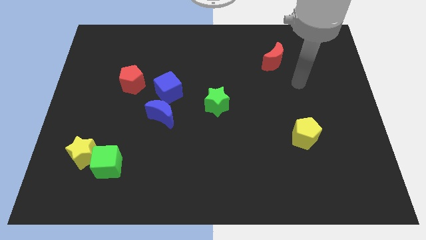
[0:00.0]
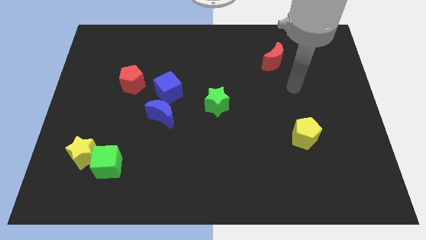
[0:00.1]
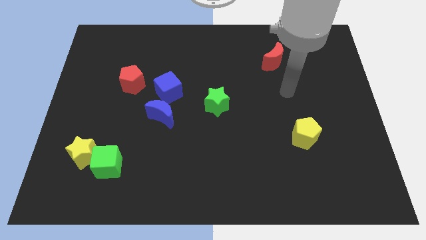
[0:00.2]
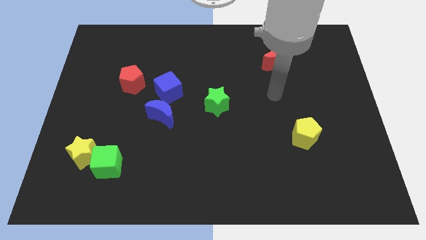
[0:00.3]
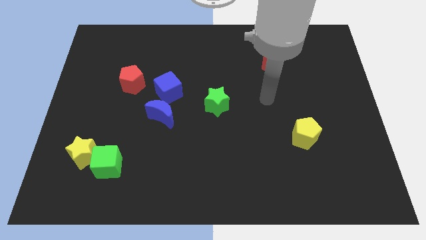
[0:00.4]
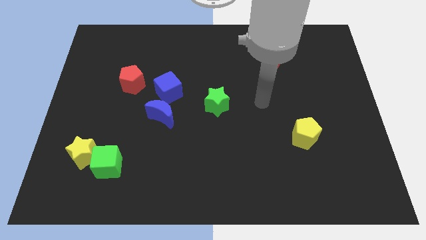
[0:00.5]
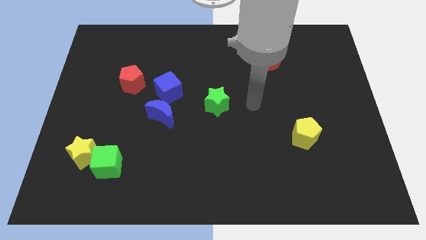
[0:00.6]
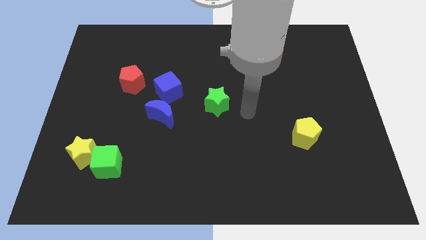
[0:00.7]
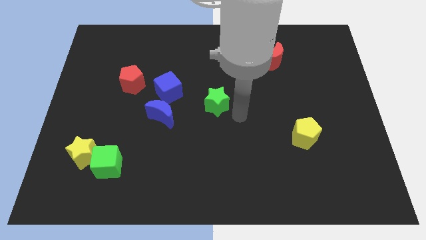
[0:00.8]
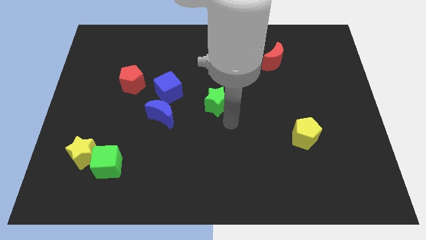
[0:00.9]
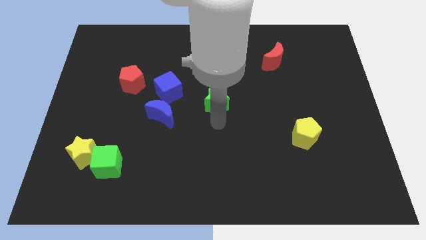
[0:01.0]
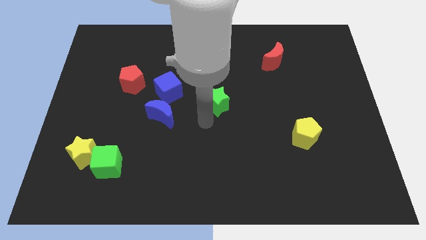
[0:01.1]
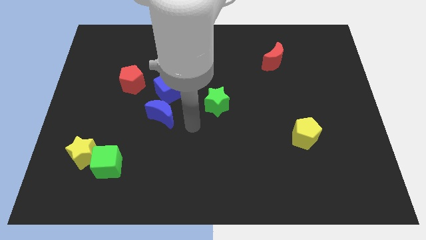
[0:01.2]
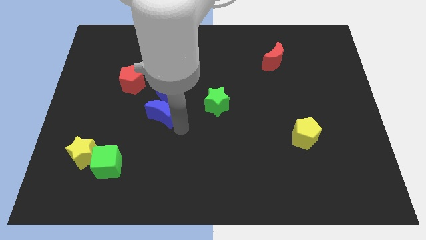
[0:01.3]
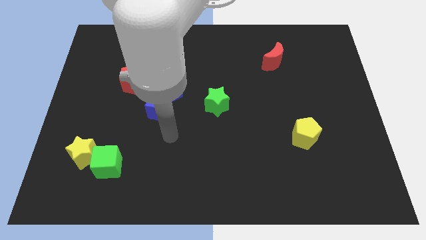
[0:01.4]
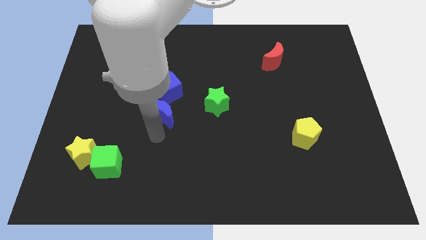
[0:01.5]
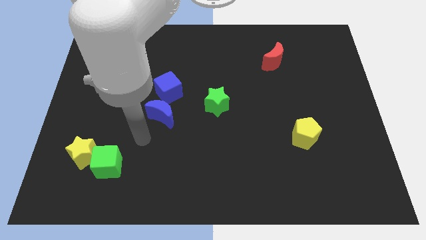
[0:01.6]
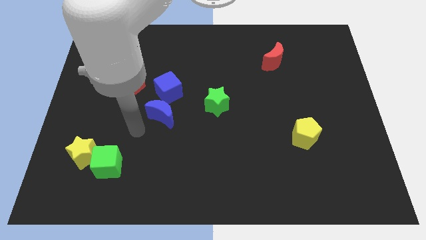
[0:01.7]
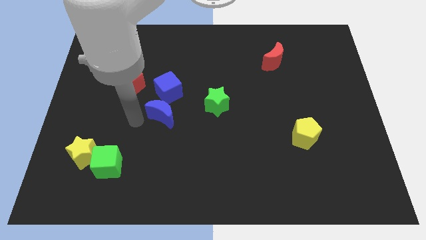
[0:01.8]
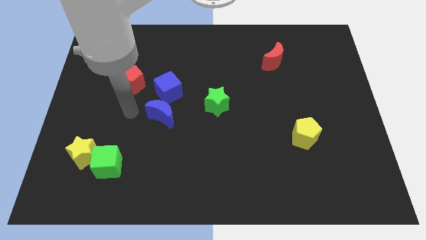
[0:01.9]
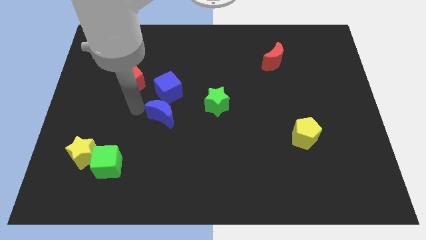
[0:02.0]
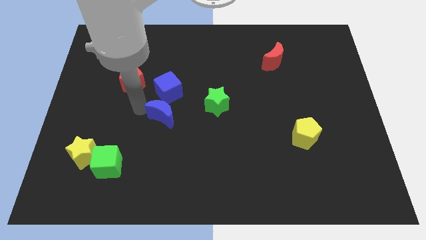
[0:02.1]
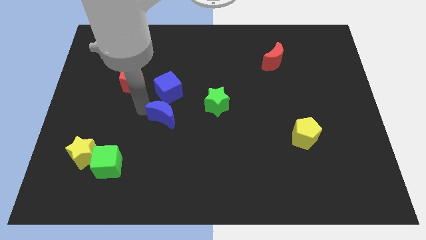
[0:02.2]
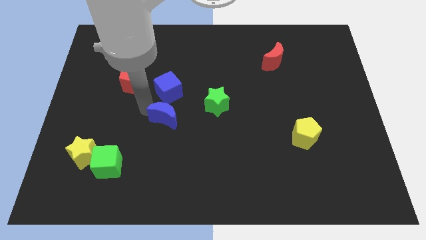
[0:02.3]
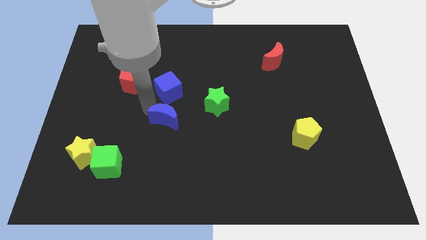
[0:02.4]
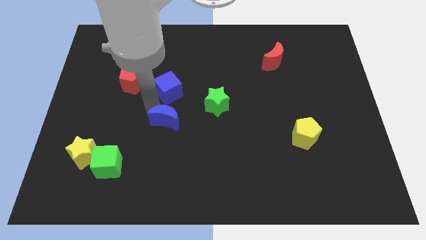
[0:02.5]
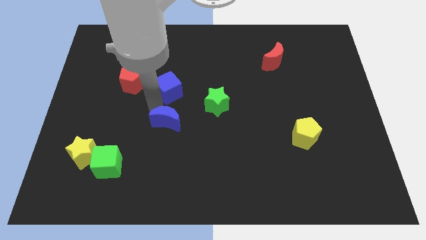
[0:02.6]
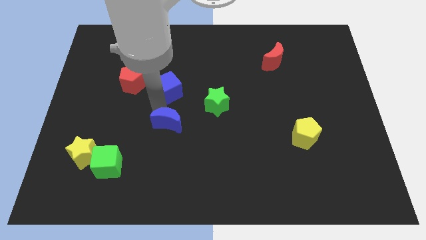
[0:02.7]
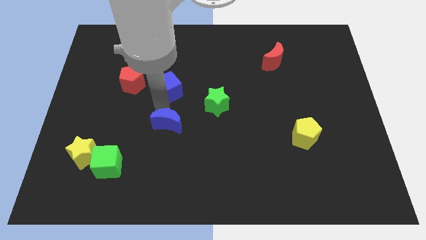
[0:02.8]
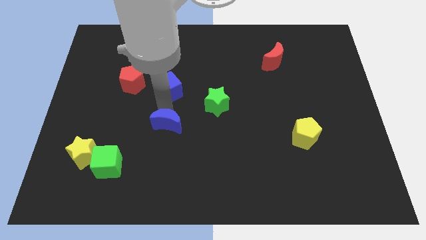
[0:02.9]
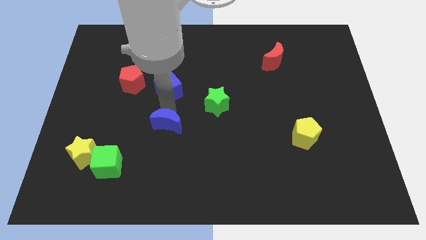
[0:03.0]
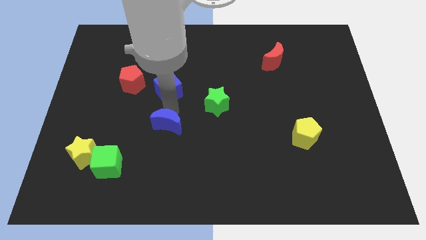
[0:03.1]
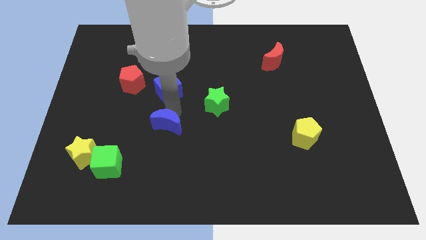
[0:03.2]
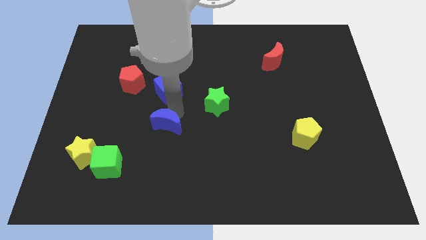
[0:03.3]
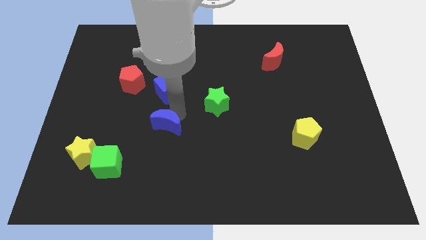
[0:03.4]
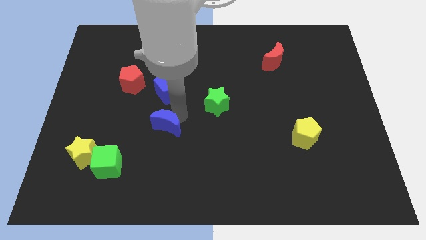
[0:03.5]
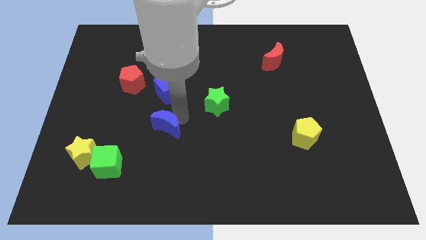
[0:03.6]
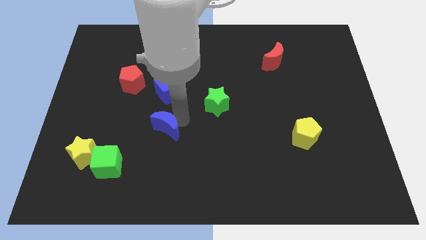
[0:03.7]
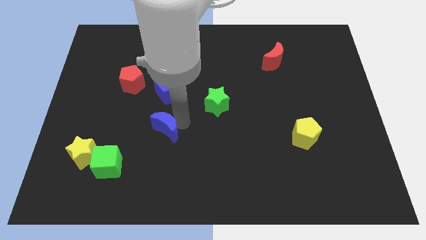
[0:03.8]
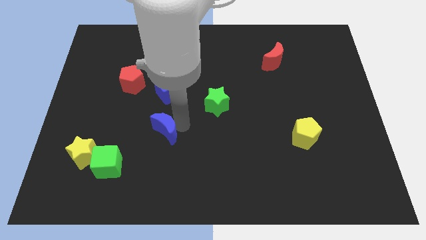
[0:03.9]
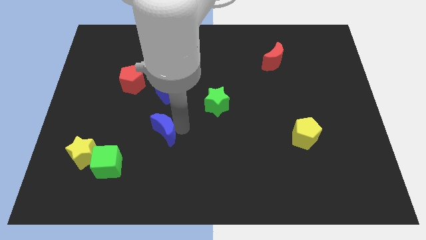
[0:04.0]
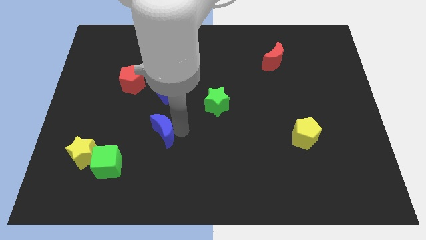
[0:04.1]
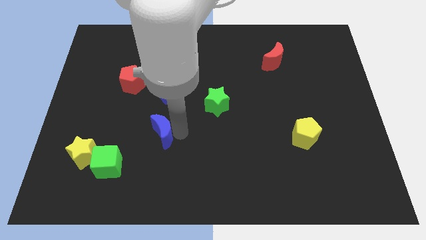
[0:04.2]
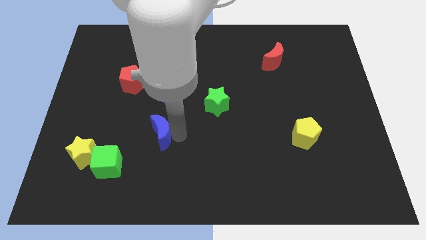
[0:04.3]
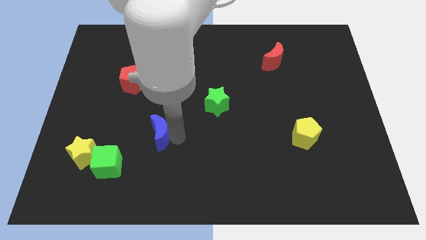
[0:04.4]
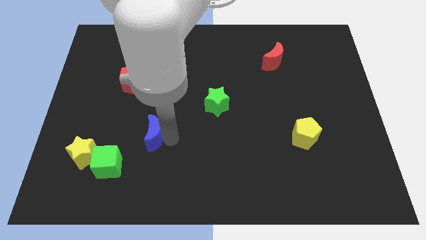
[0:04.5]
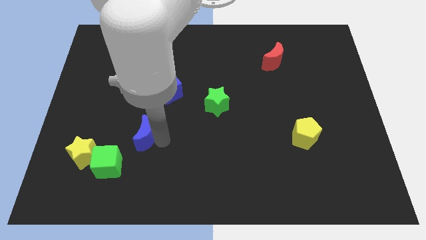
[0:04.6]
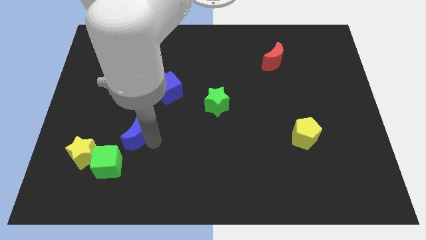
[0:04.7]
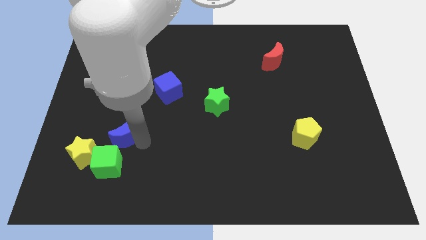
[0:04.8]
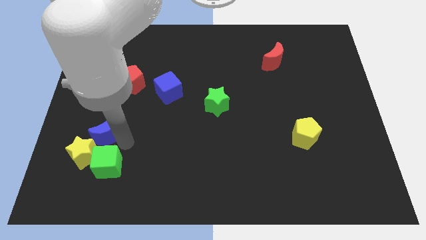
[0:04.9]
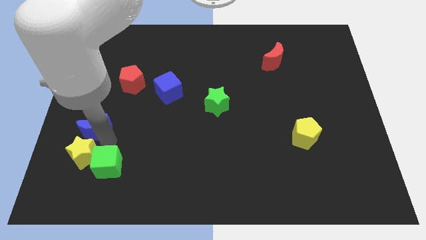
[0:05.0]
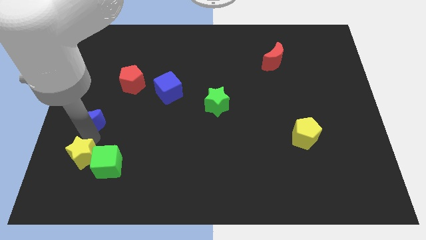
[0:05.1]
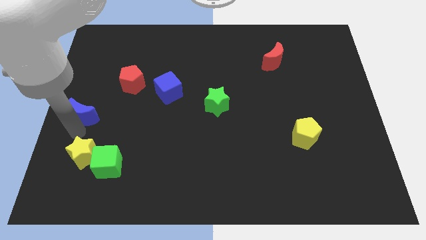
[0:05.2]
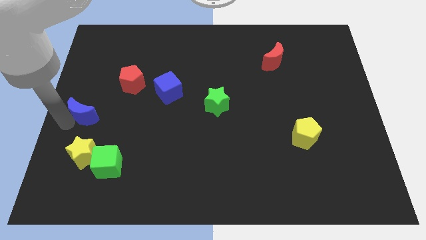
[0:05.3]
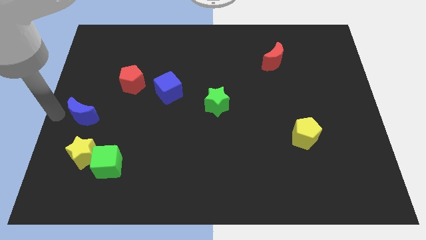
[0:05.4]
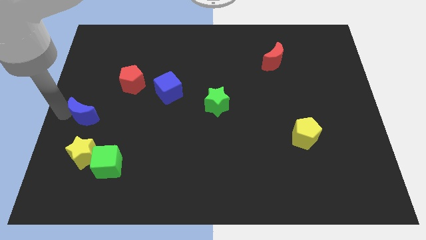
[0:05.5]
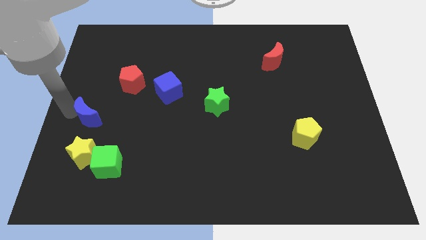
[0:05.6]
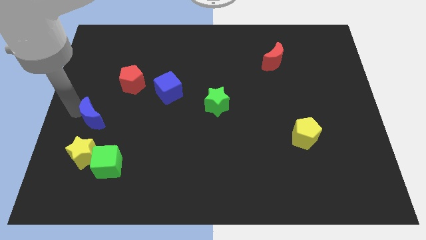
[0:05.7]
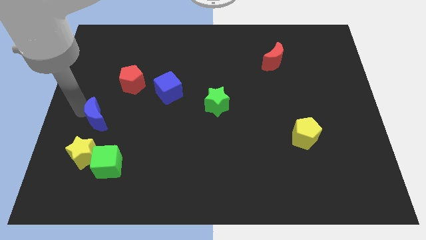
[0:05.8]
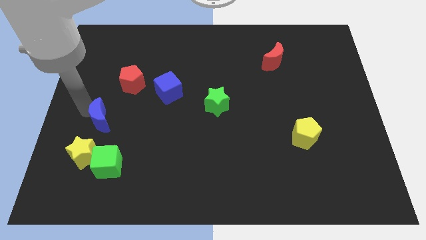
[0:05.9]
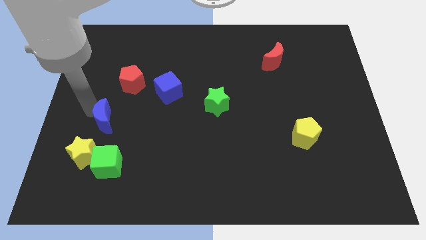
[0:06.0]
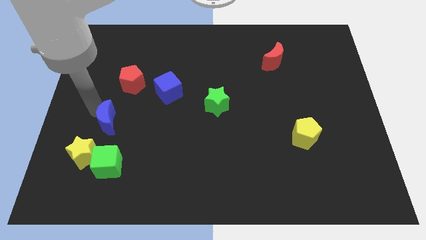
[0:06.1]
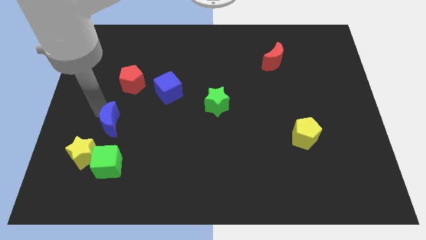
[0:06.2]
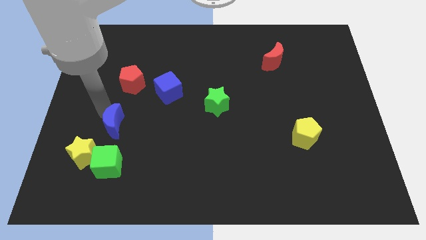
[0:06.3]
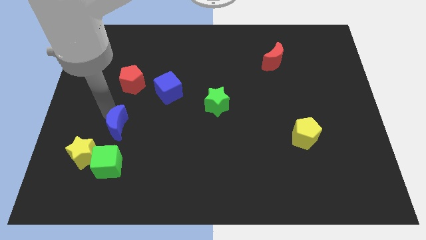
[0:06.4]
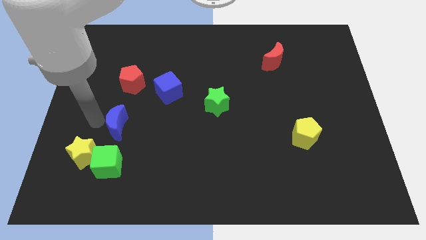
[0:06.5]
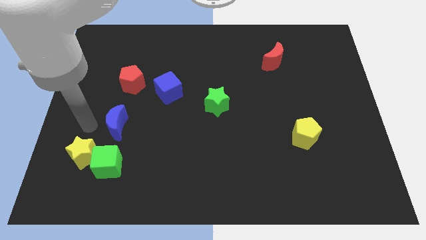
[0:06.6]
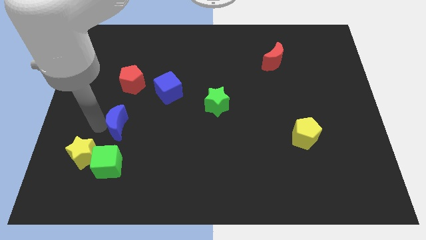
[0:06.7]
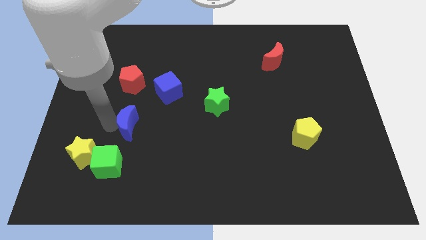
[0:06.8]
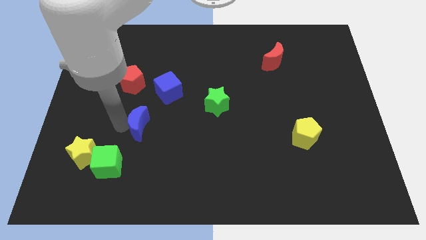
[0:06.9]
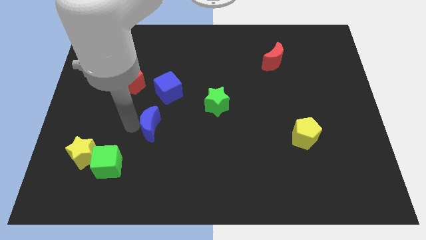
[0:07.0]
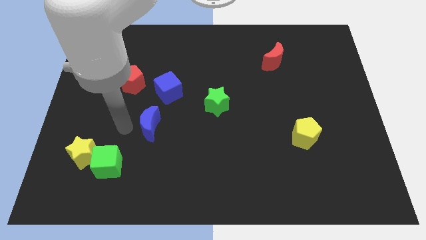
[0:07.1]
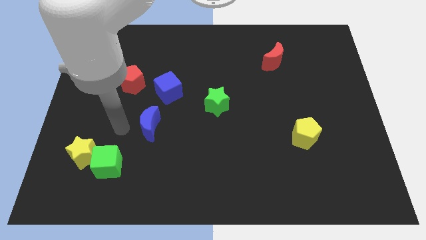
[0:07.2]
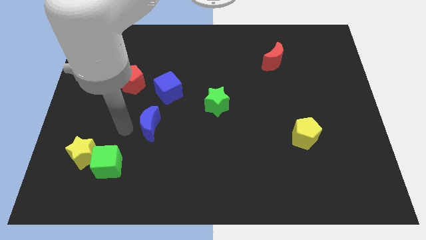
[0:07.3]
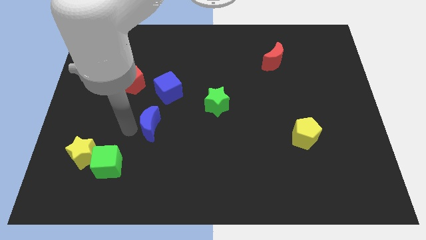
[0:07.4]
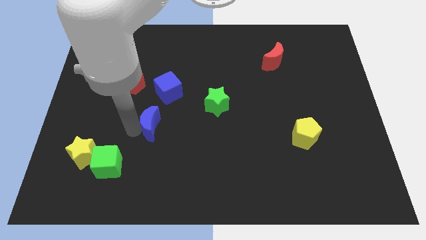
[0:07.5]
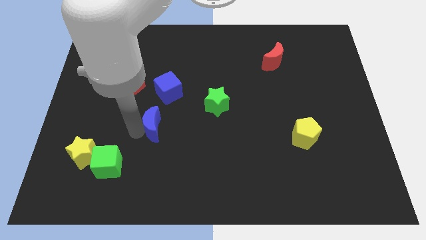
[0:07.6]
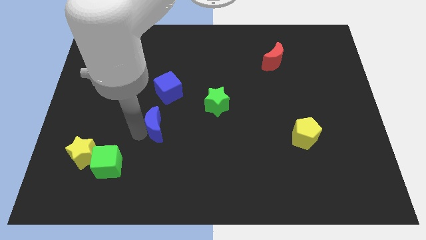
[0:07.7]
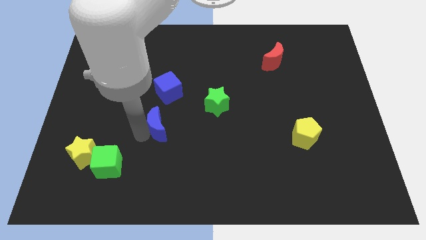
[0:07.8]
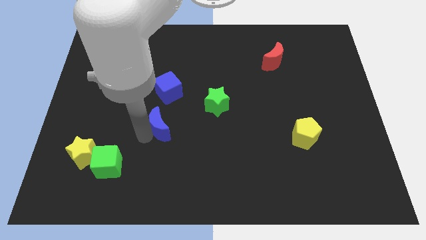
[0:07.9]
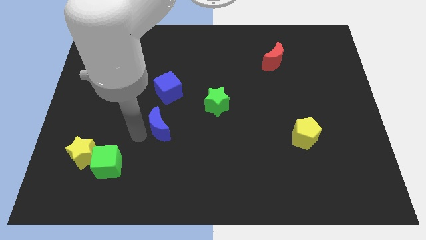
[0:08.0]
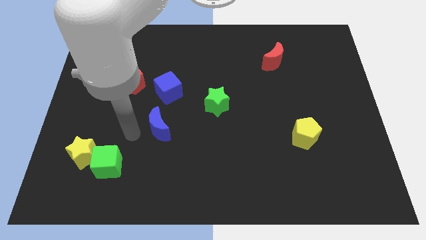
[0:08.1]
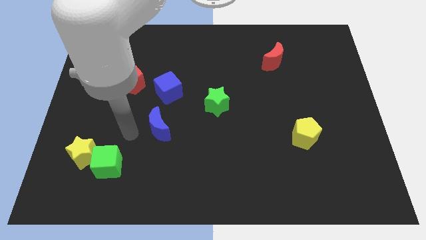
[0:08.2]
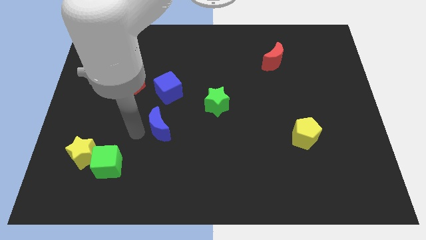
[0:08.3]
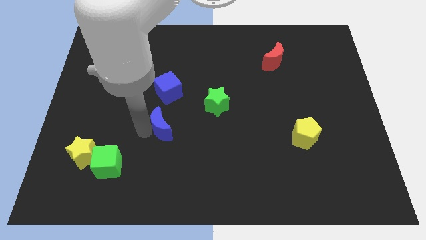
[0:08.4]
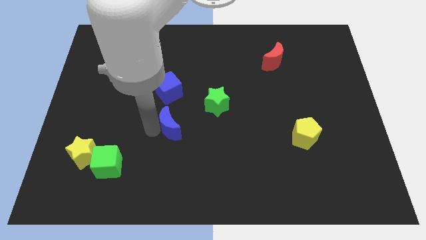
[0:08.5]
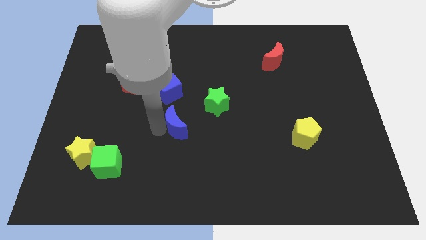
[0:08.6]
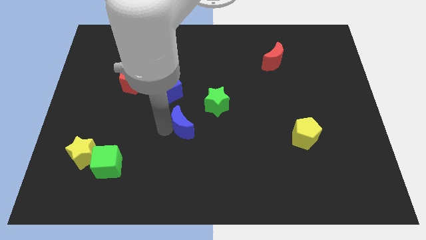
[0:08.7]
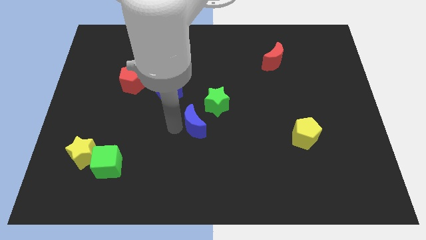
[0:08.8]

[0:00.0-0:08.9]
push the blue moon right a bit
